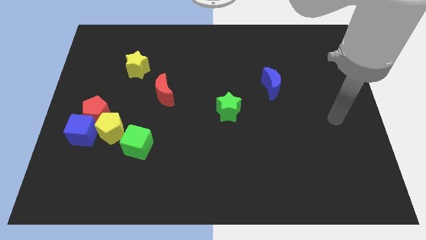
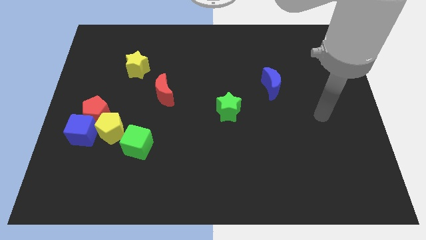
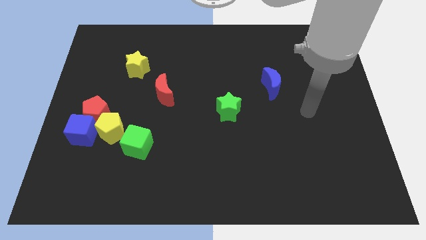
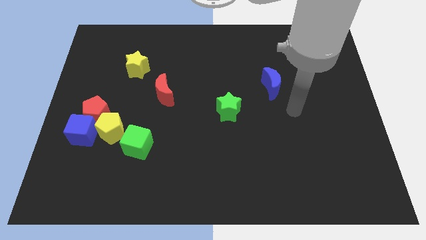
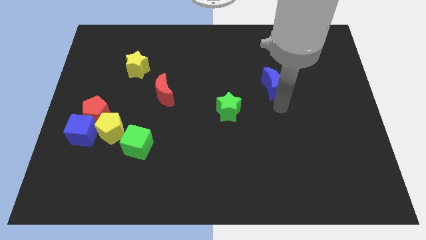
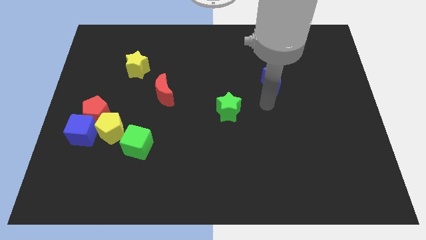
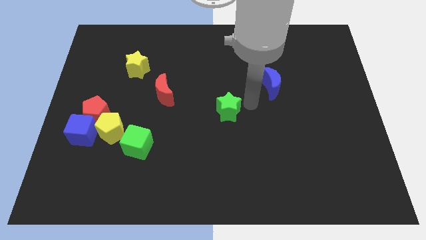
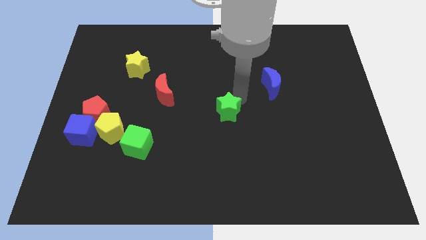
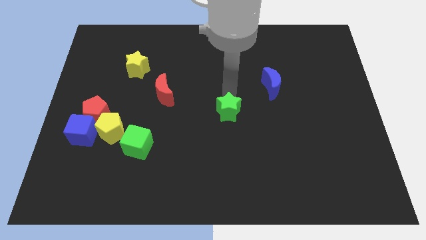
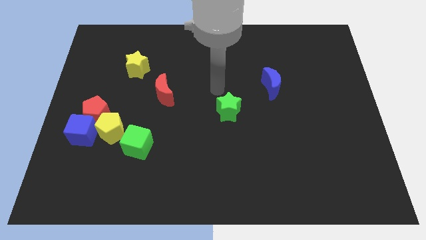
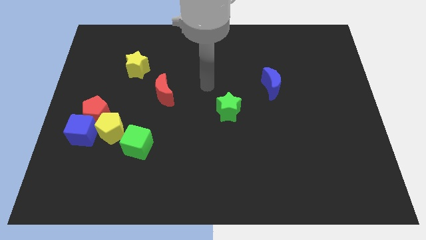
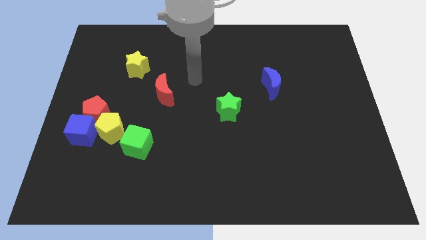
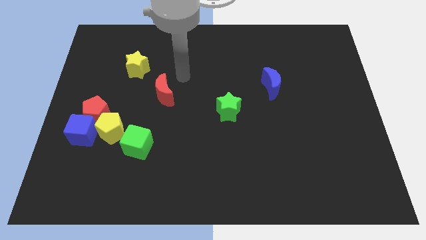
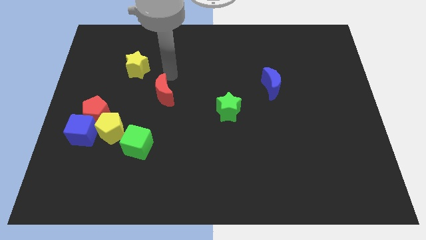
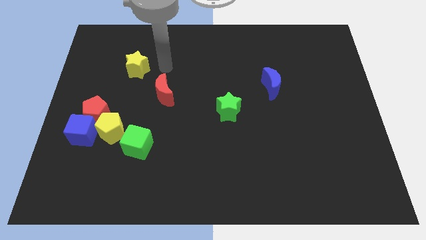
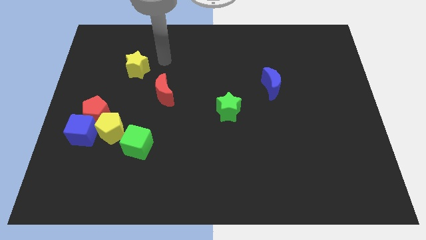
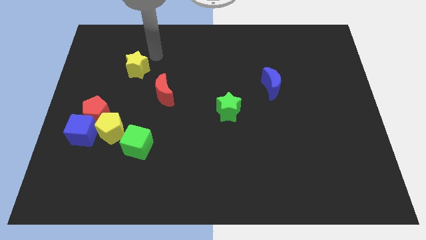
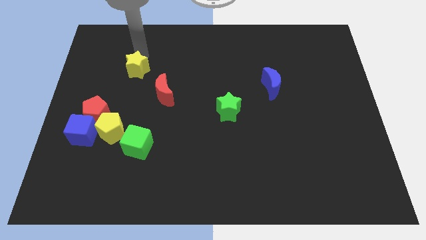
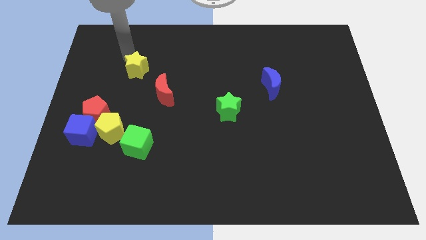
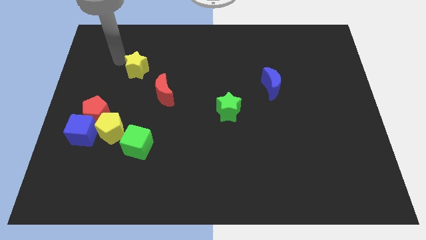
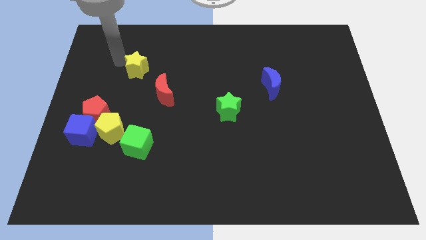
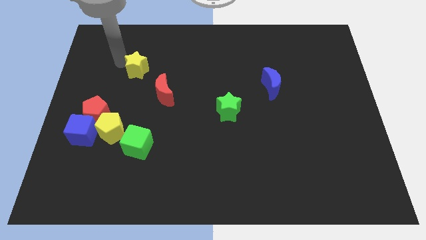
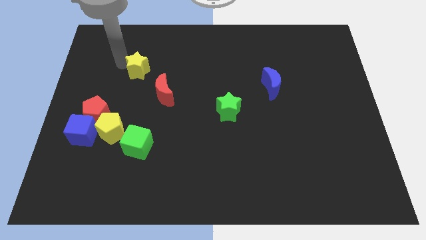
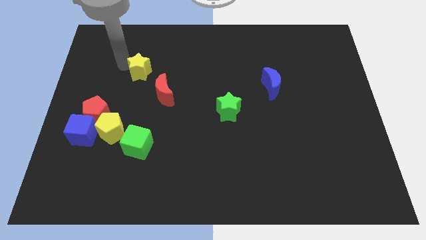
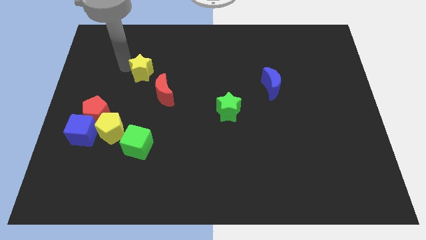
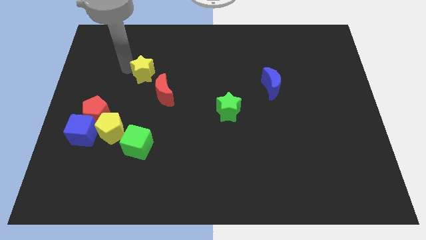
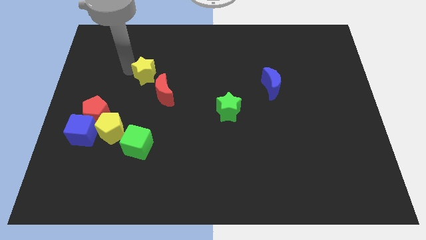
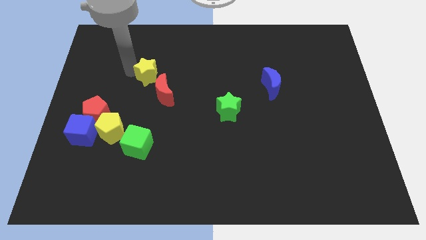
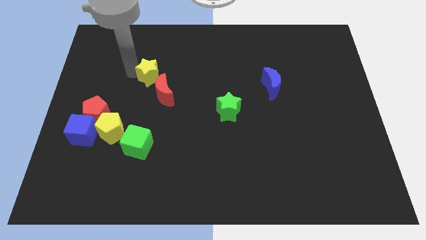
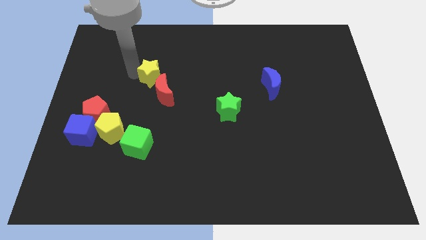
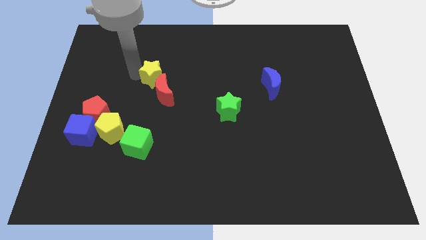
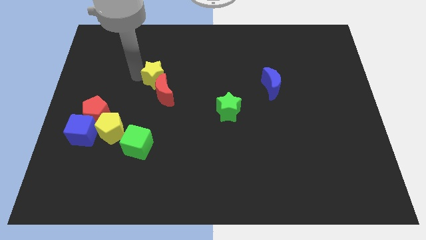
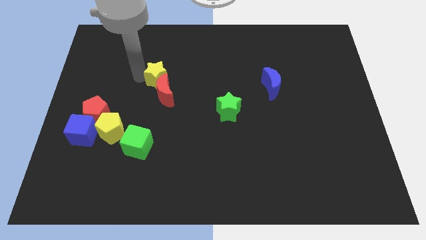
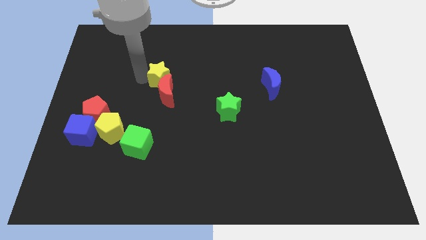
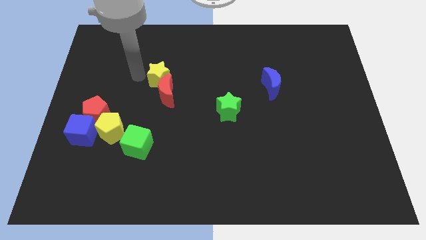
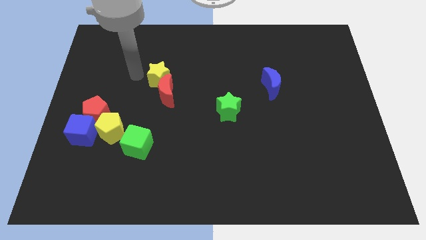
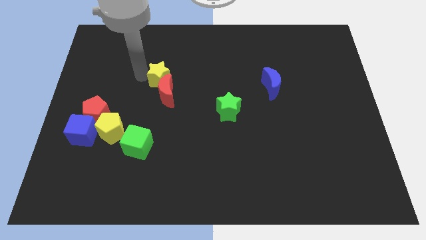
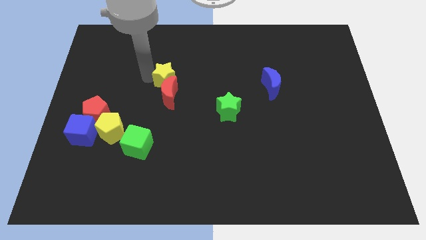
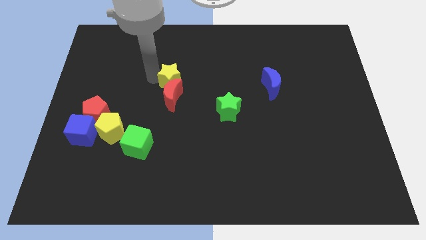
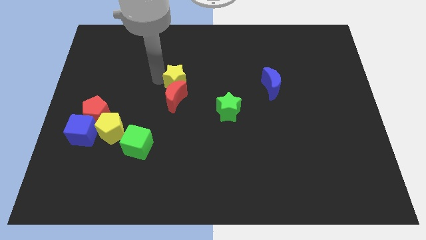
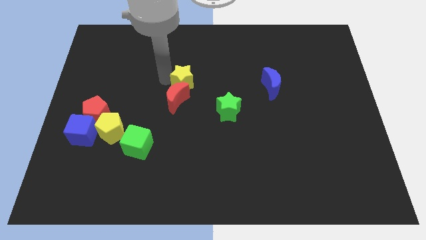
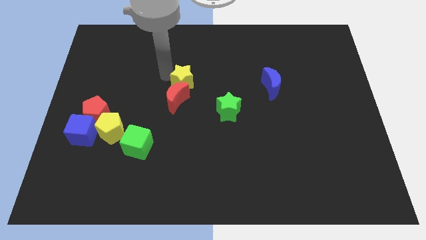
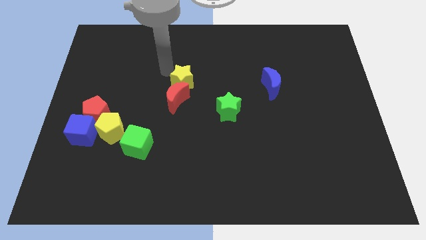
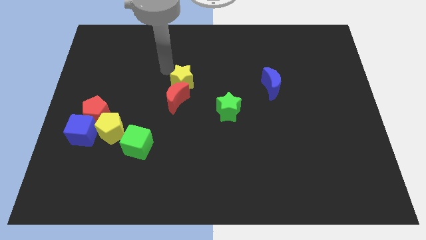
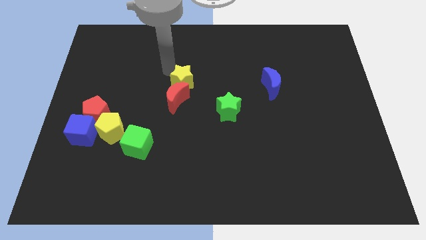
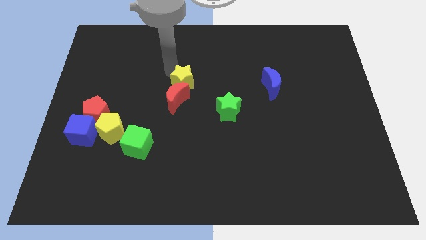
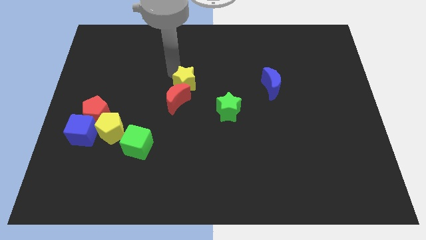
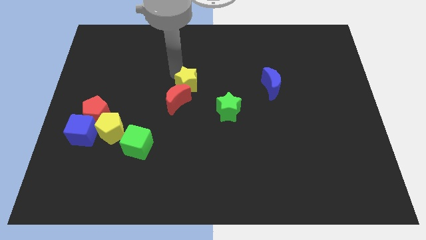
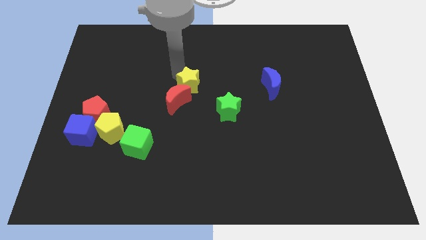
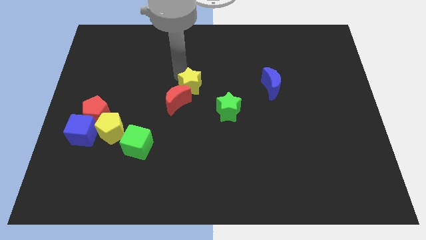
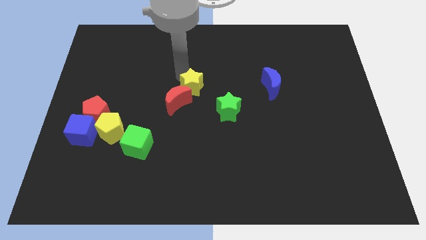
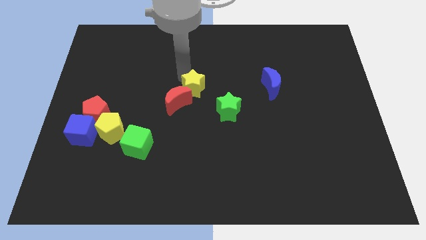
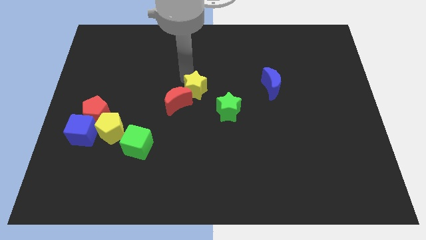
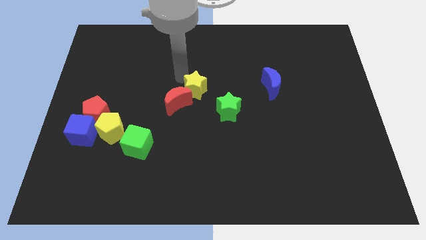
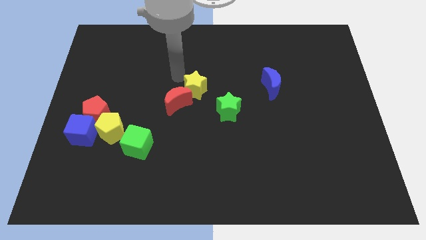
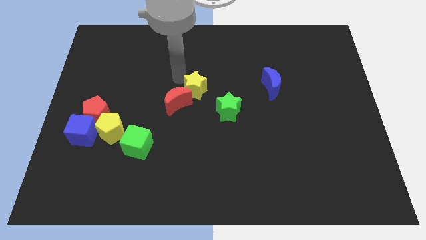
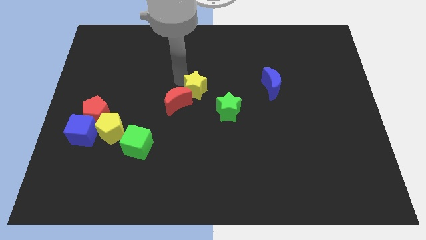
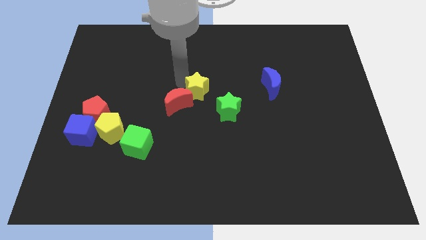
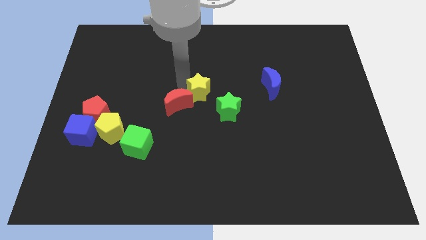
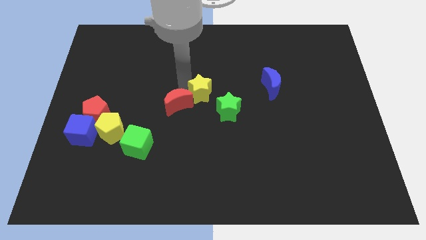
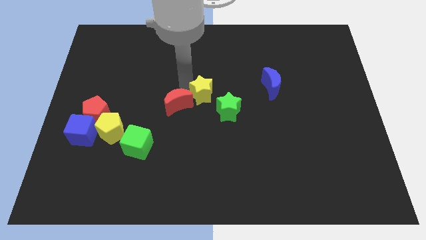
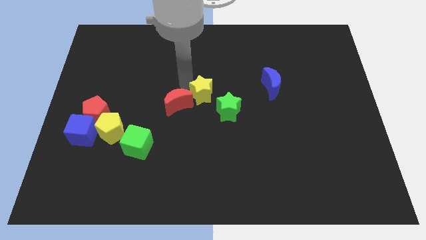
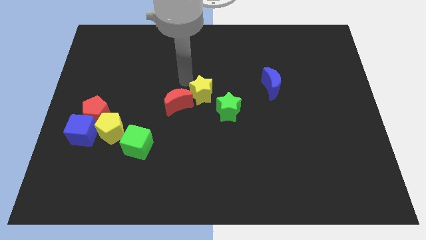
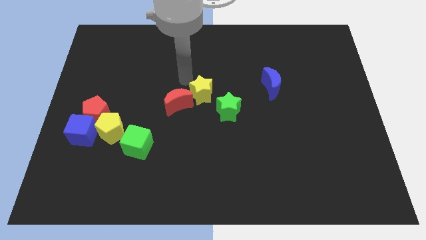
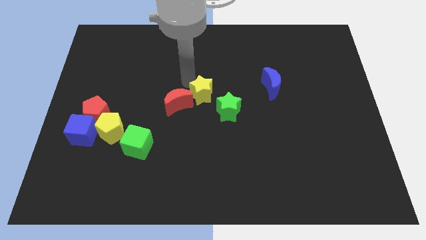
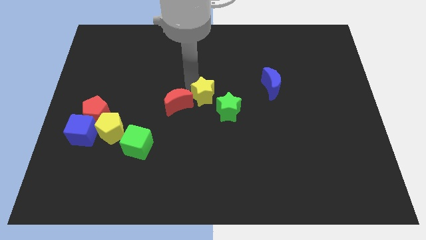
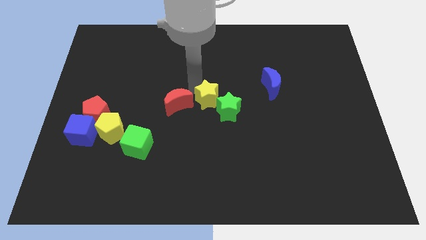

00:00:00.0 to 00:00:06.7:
put the yellow star close to the green star

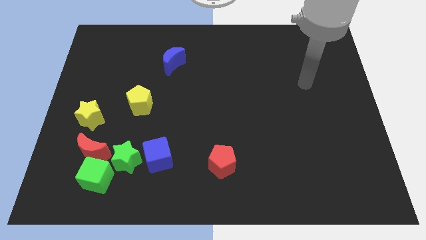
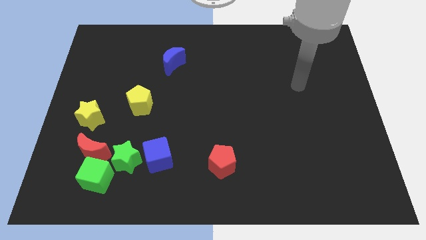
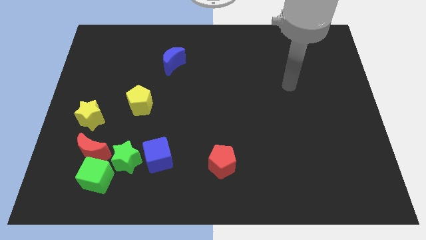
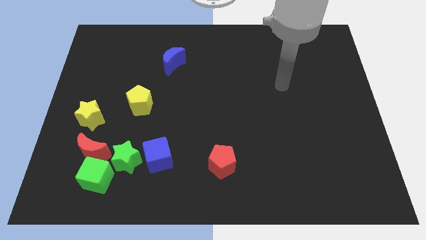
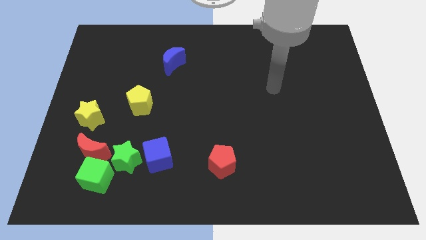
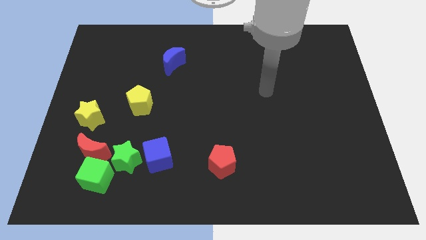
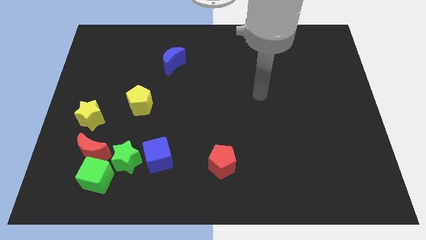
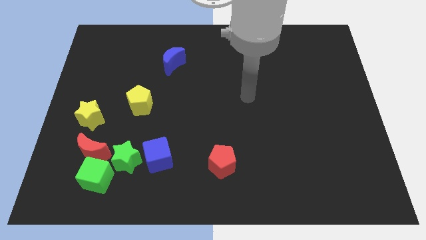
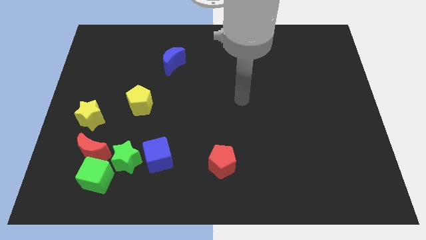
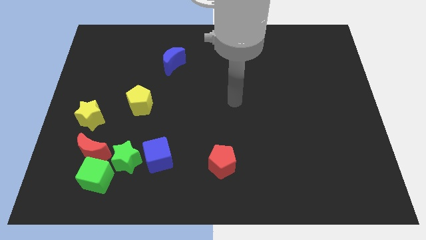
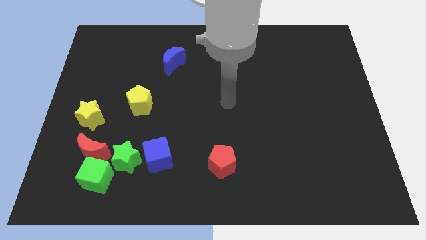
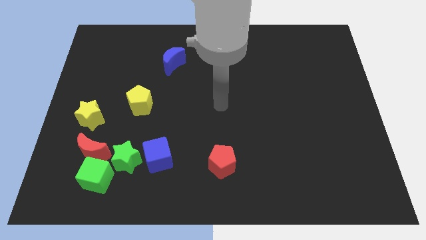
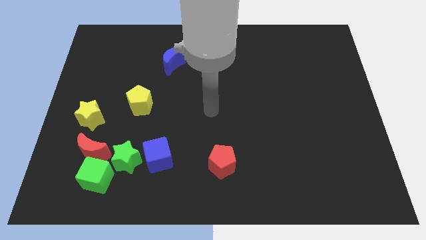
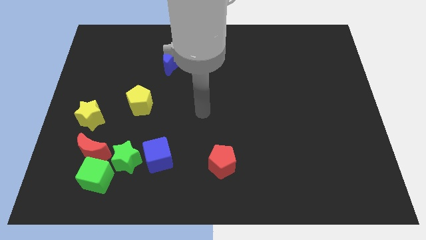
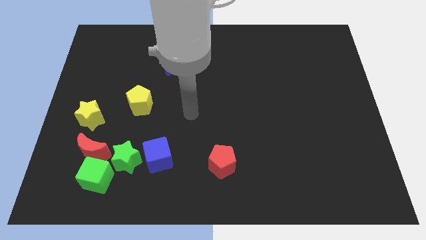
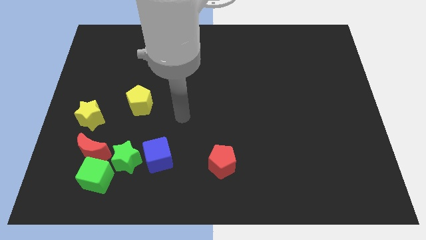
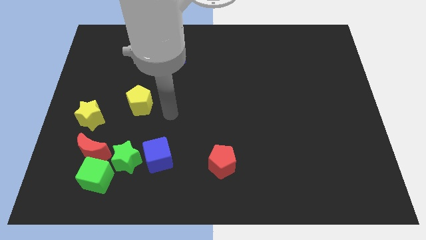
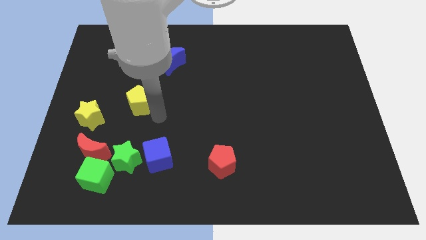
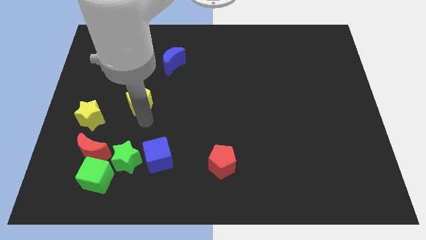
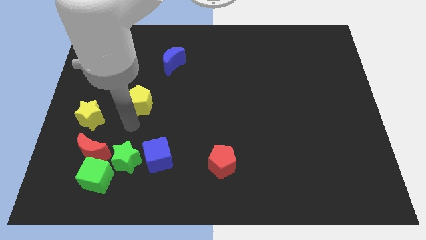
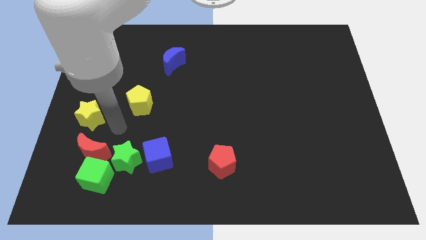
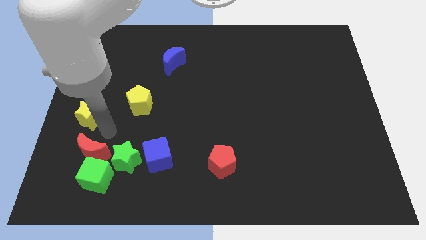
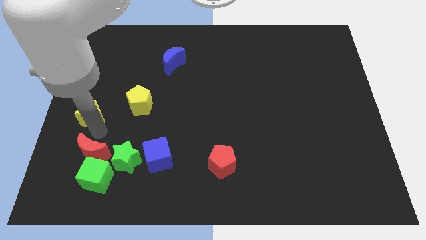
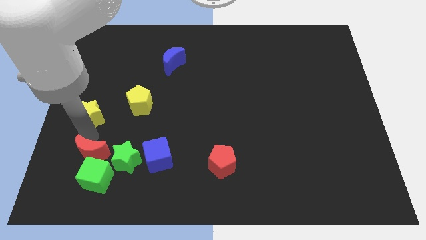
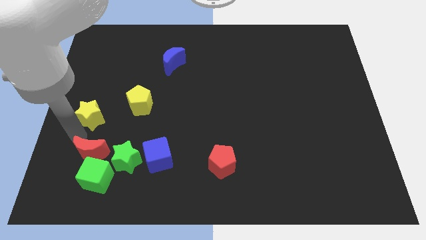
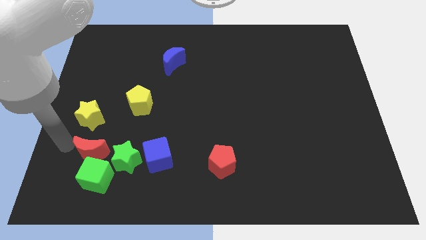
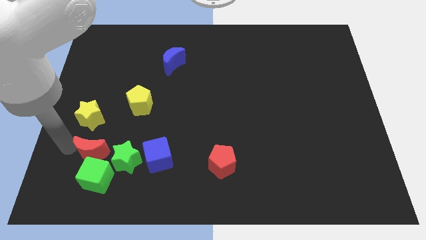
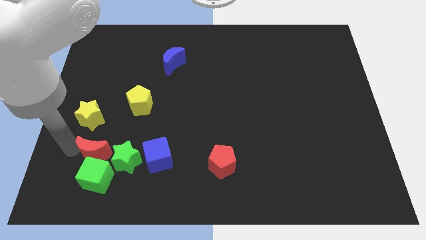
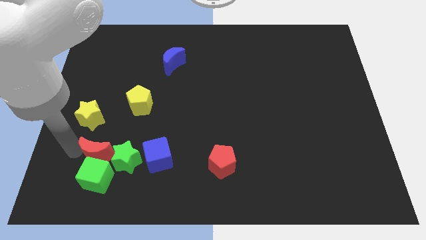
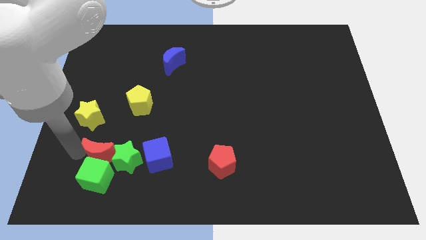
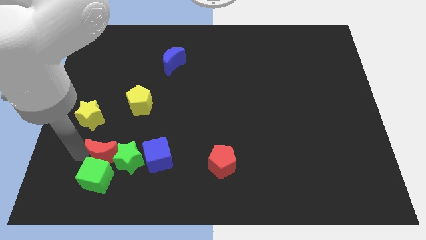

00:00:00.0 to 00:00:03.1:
put the red moon next to the green star
